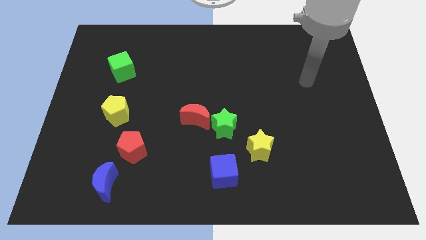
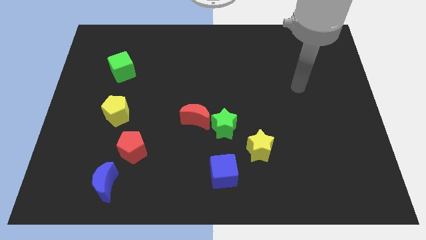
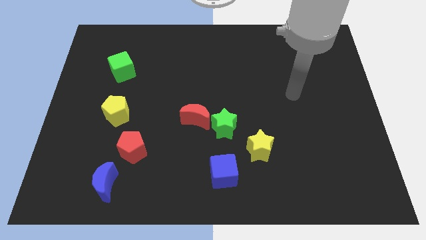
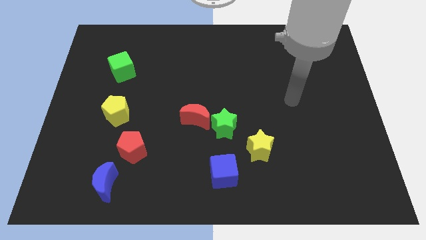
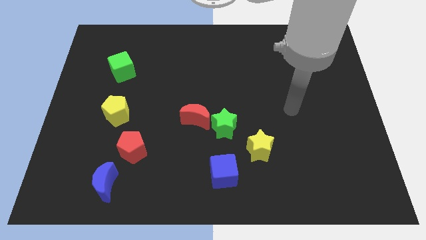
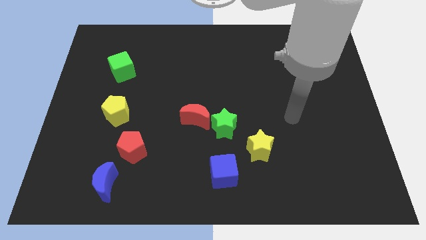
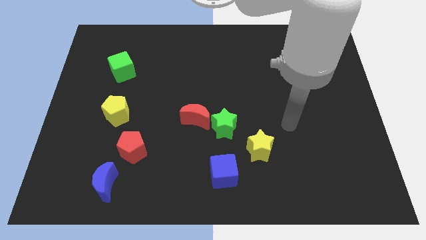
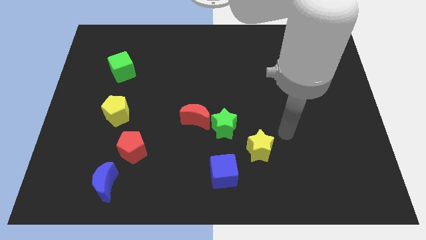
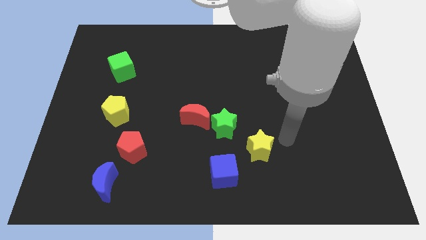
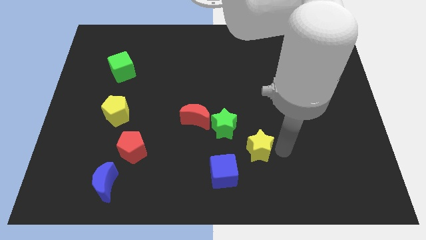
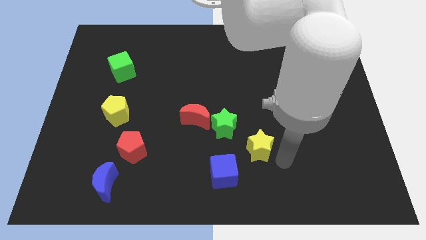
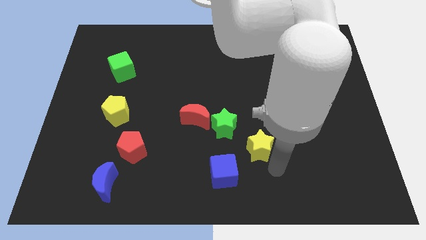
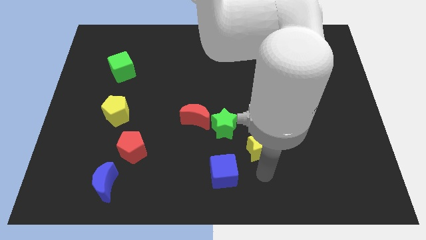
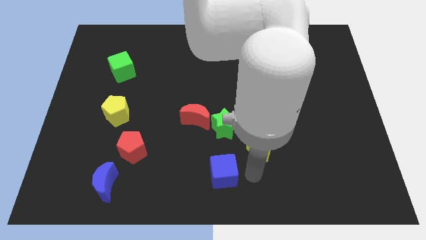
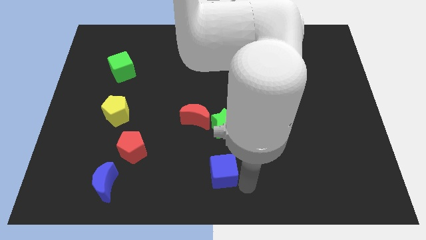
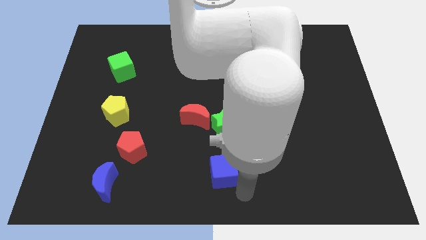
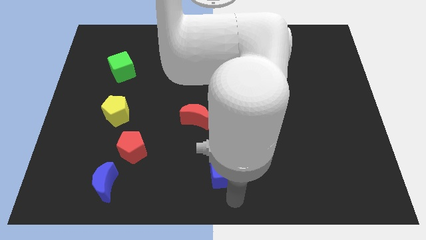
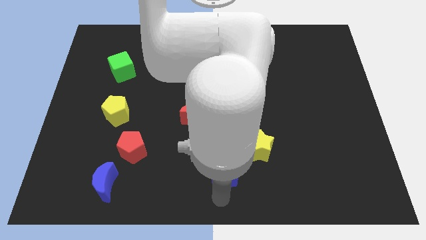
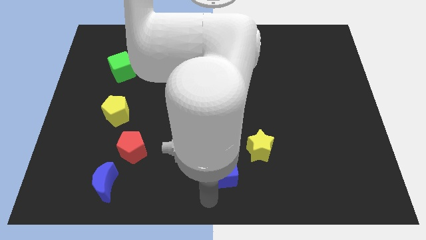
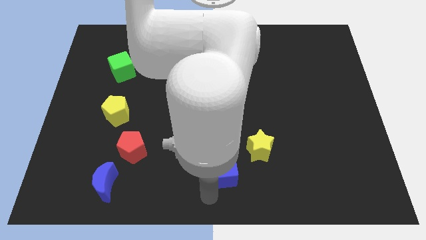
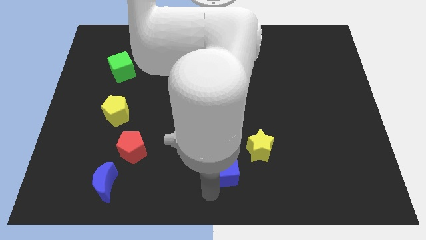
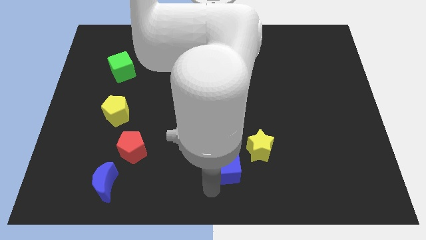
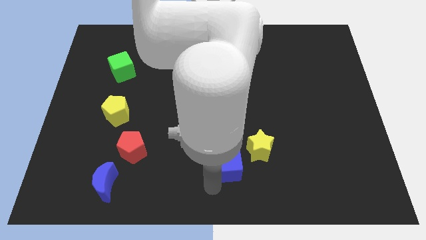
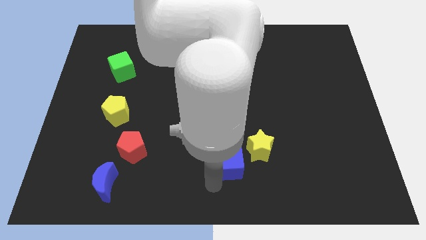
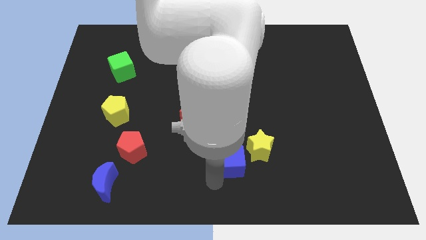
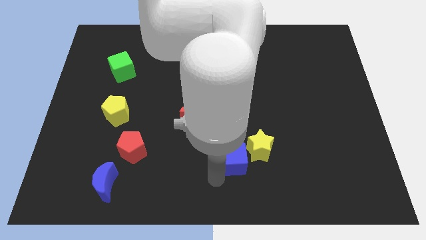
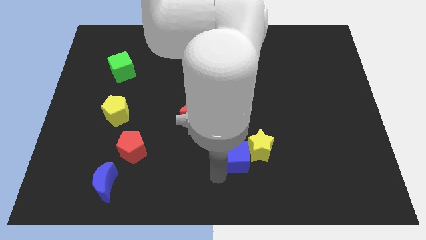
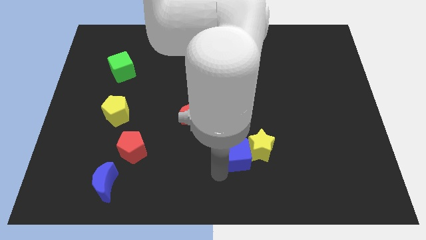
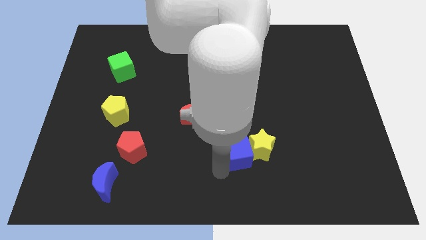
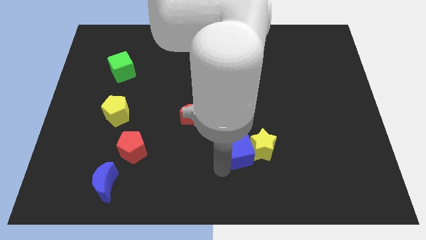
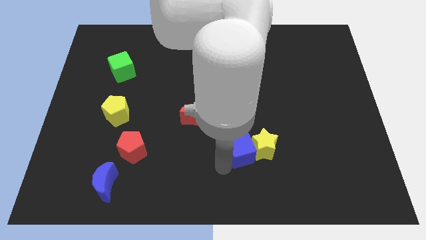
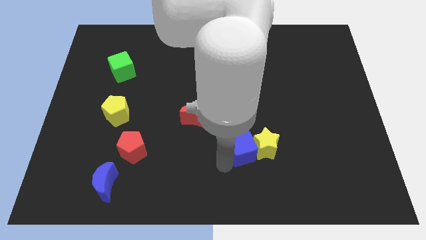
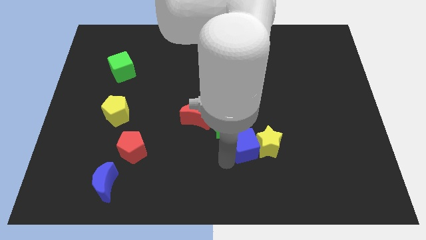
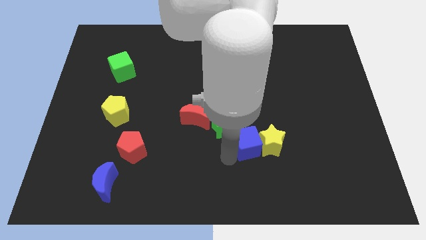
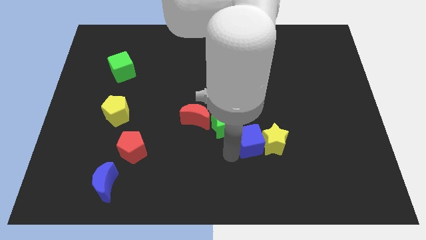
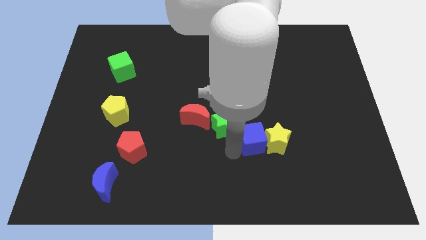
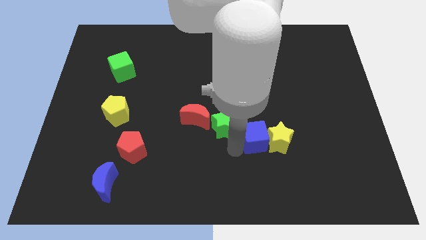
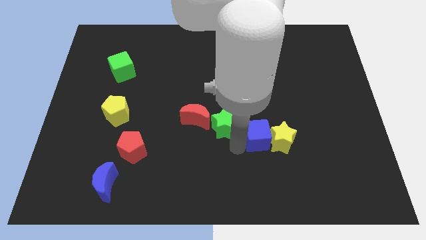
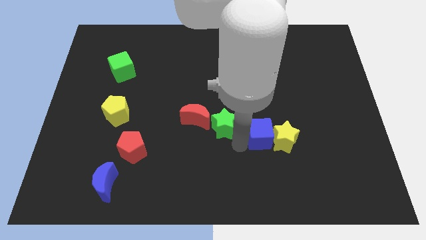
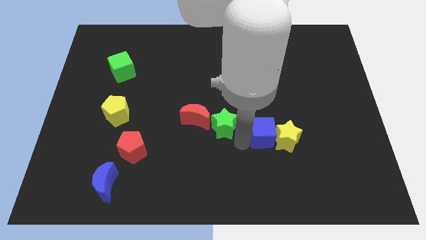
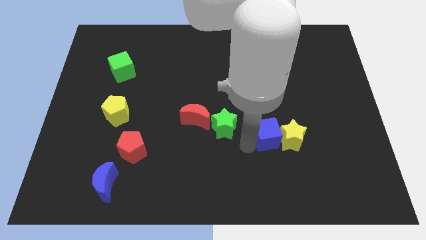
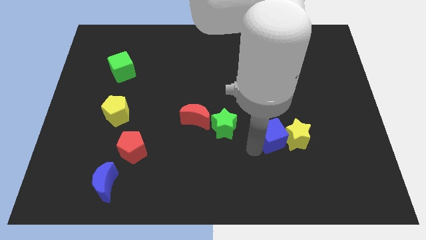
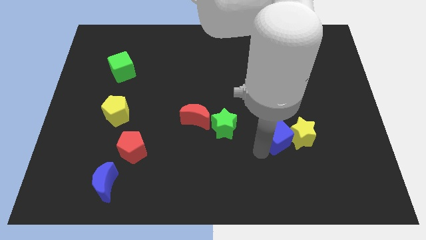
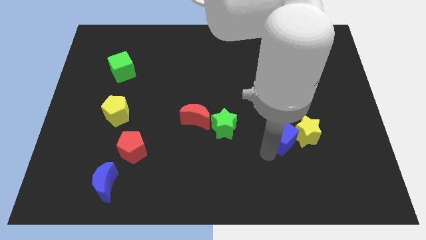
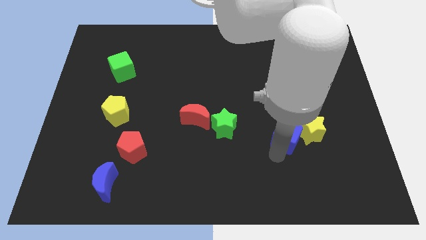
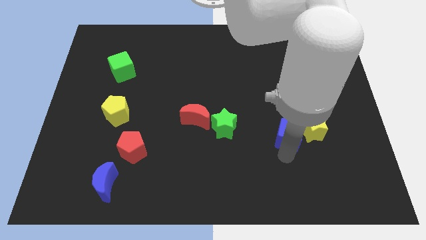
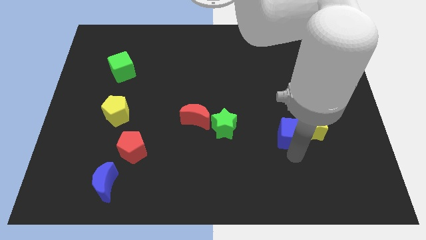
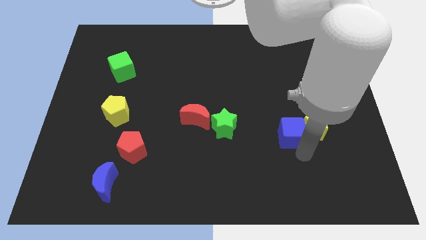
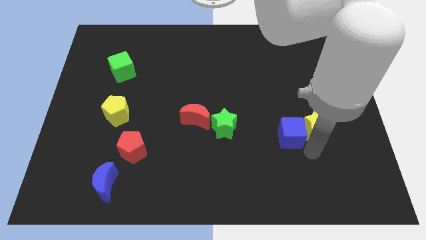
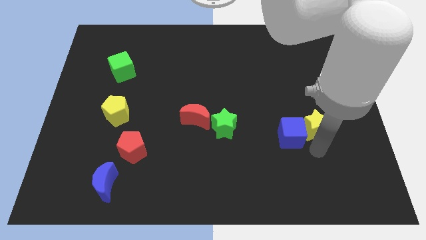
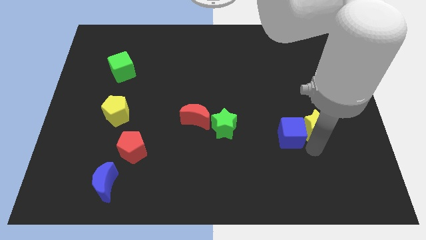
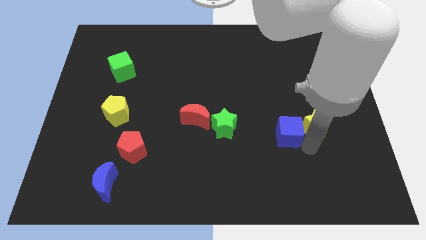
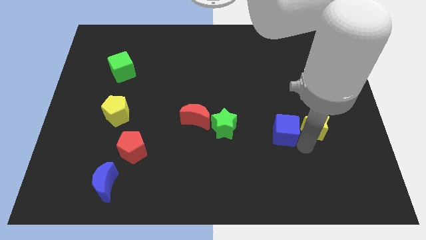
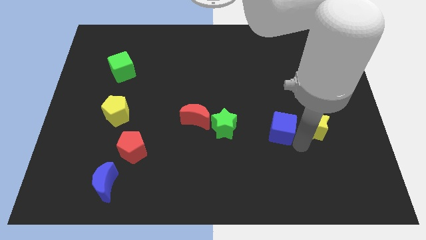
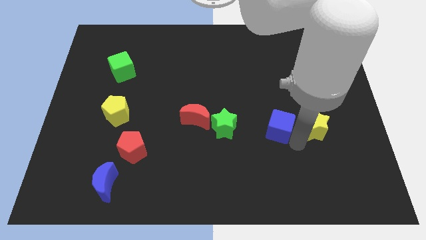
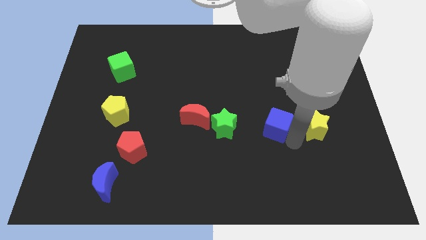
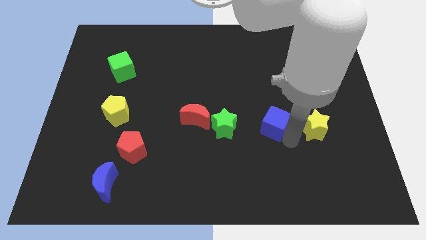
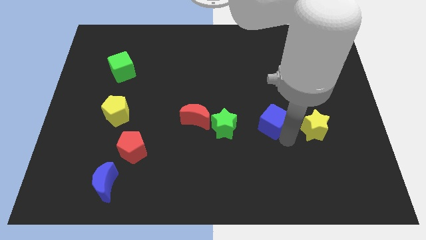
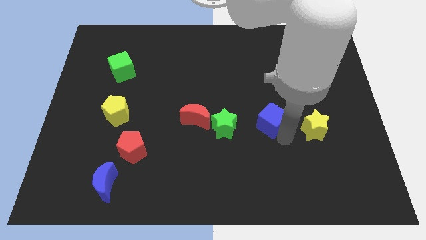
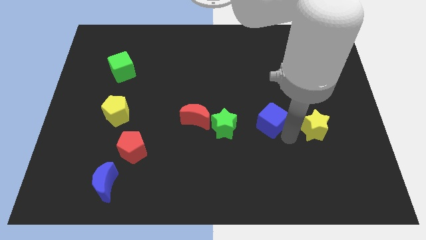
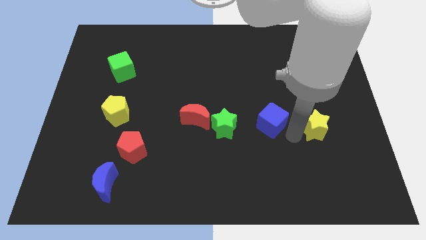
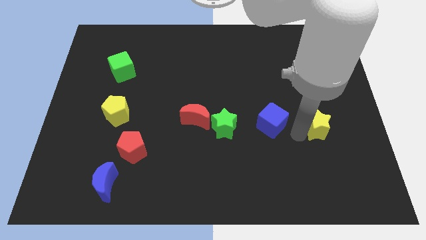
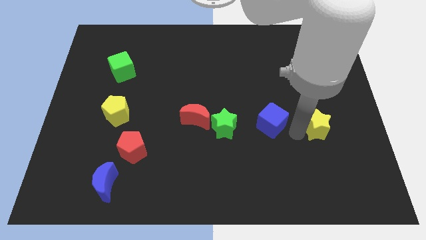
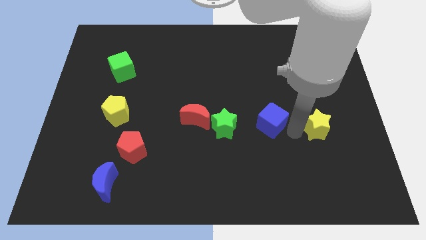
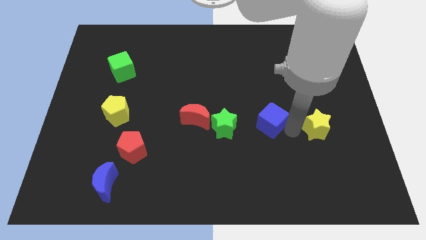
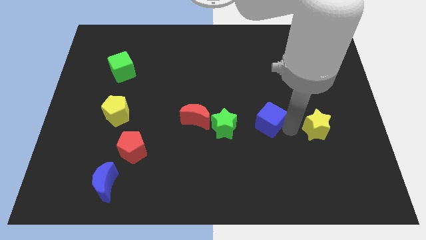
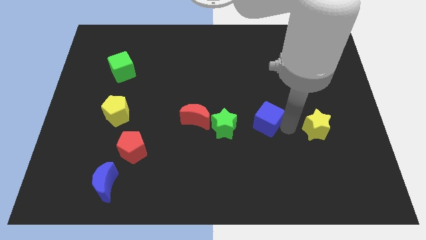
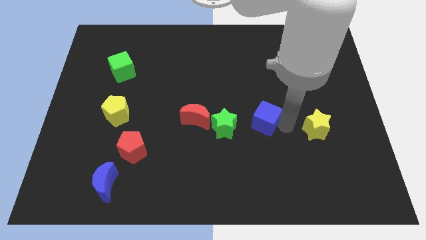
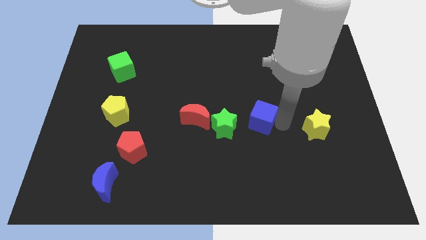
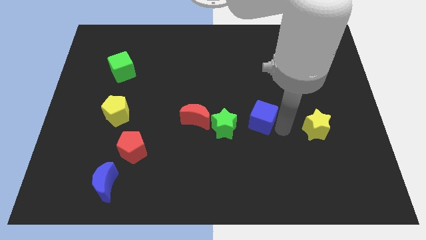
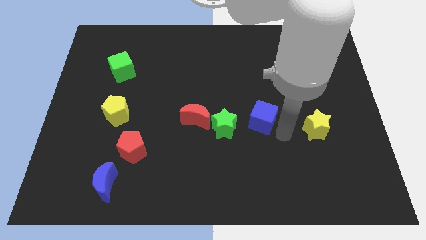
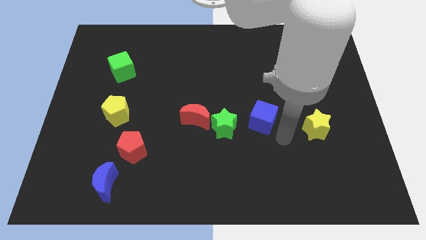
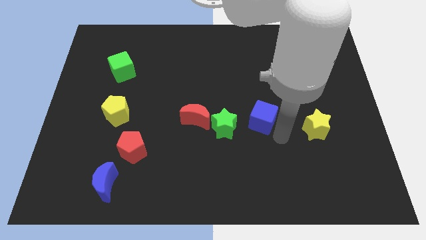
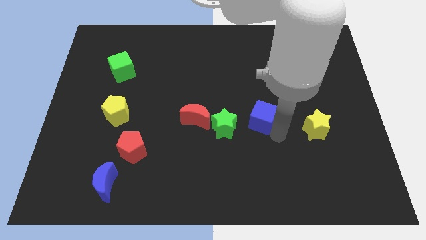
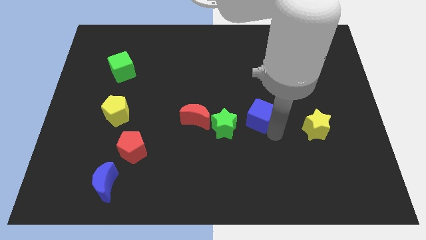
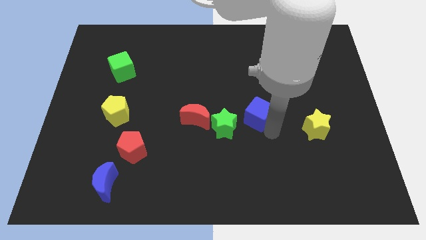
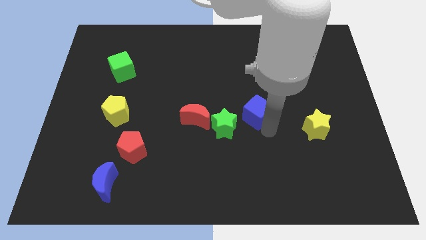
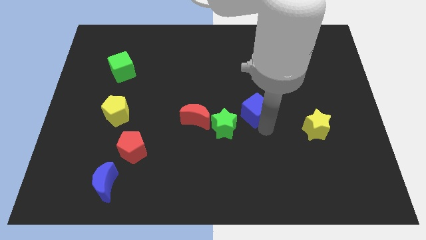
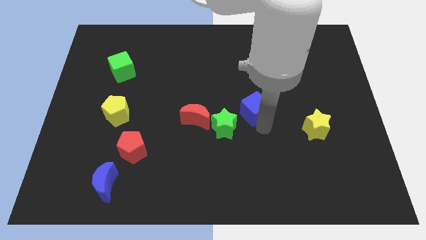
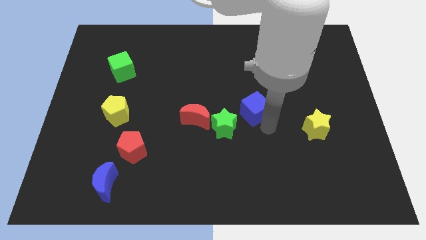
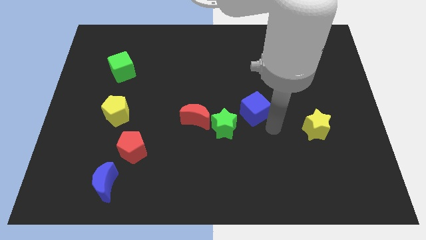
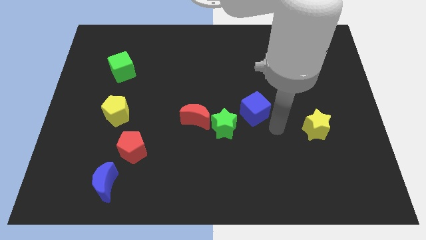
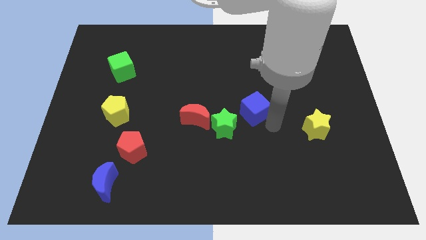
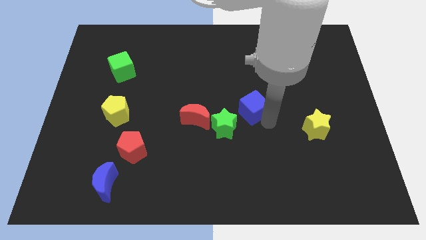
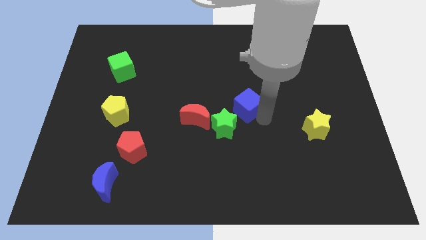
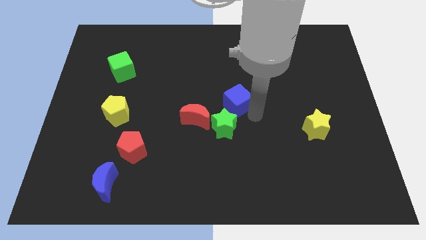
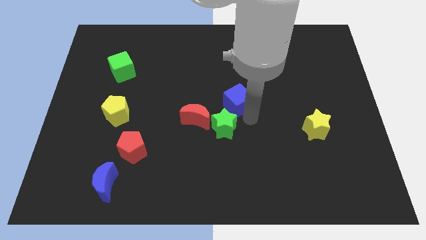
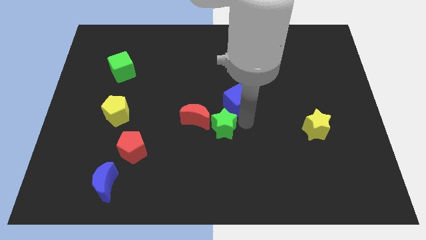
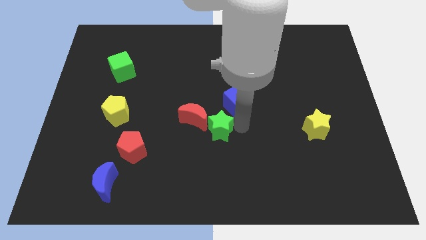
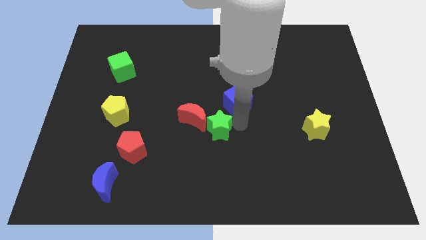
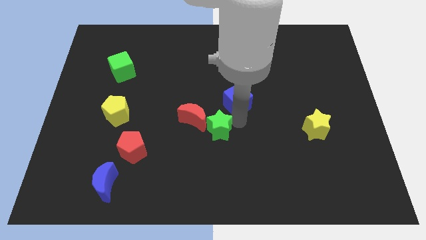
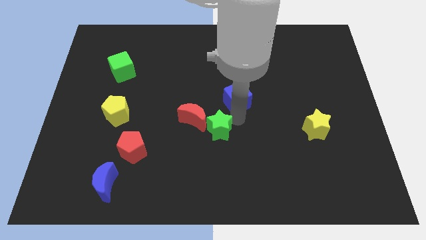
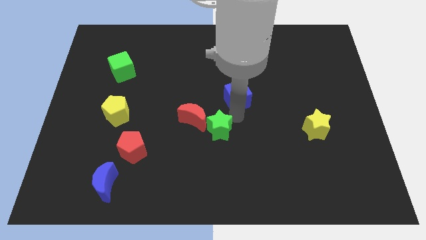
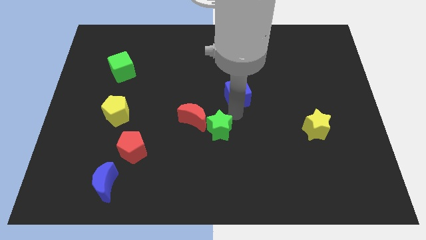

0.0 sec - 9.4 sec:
push the blue cube up
